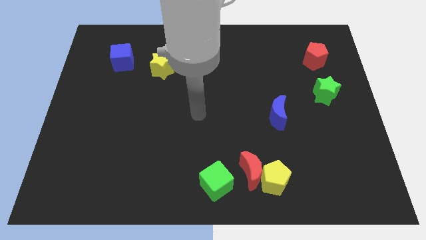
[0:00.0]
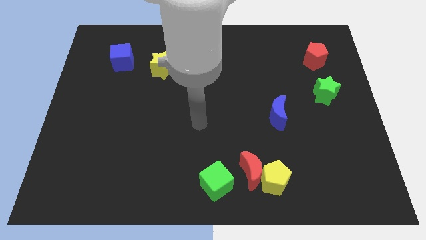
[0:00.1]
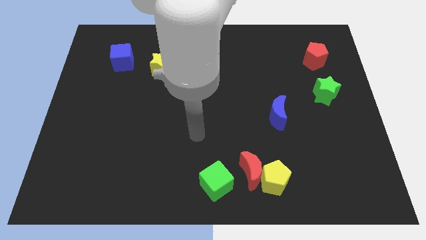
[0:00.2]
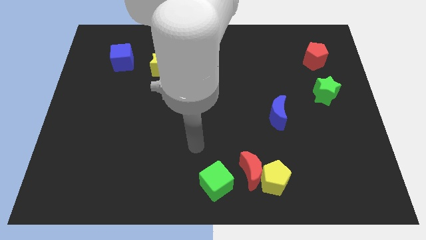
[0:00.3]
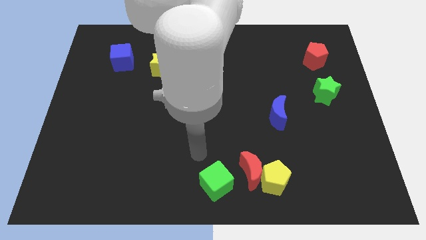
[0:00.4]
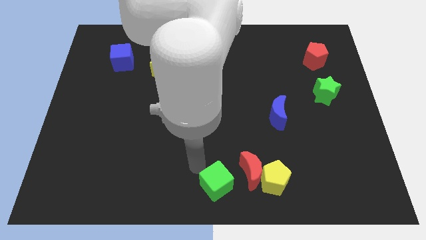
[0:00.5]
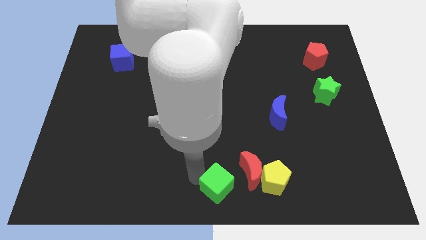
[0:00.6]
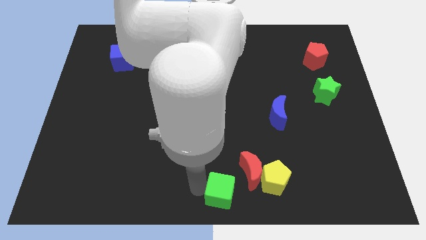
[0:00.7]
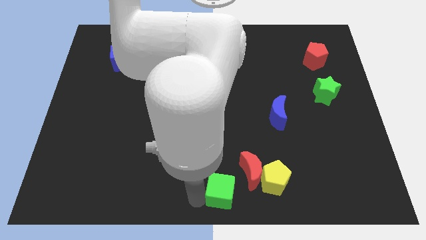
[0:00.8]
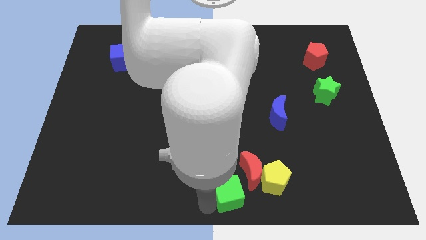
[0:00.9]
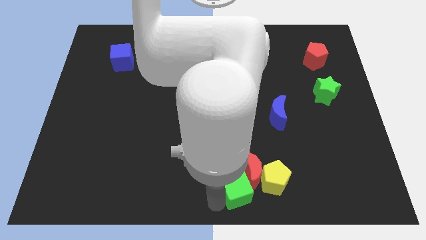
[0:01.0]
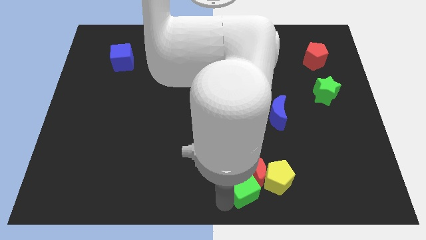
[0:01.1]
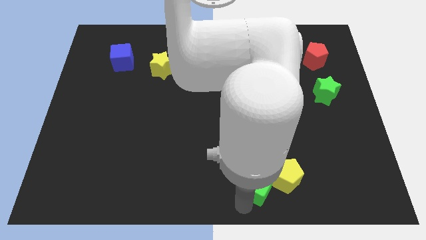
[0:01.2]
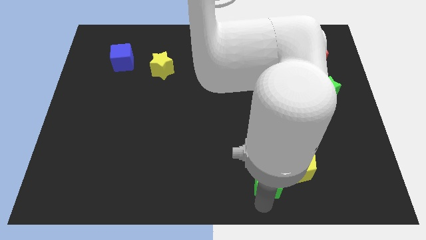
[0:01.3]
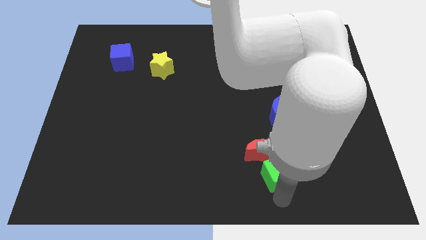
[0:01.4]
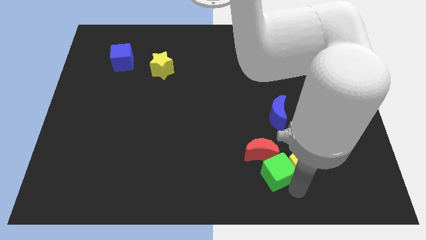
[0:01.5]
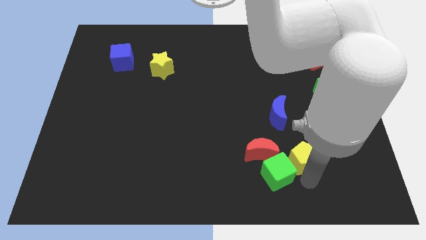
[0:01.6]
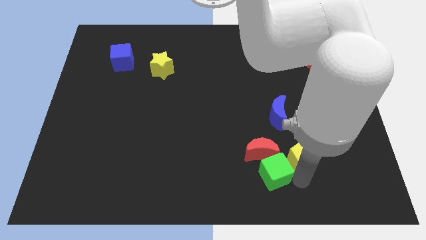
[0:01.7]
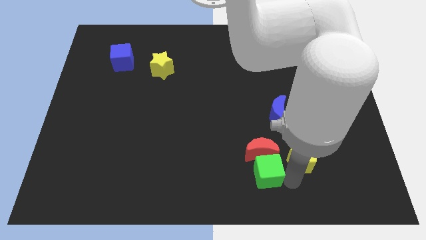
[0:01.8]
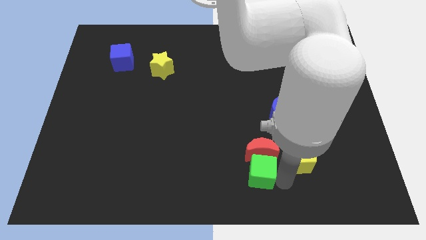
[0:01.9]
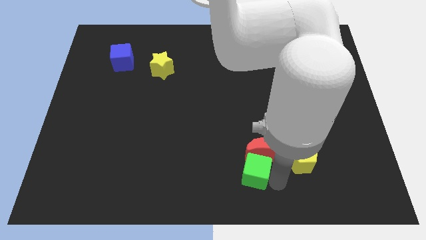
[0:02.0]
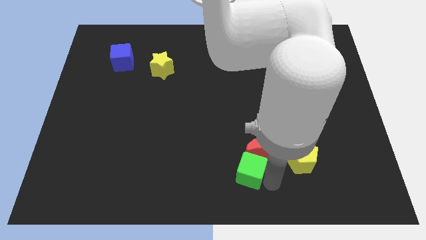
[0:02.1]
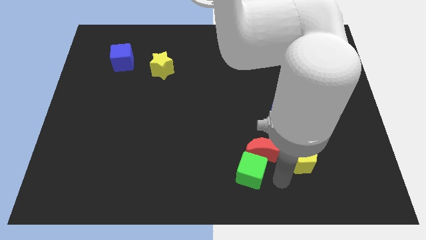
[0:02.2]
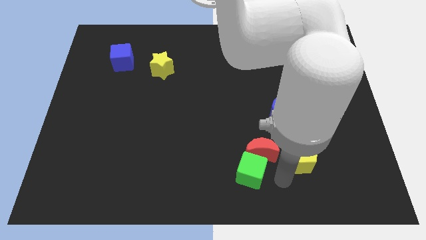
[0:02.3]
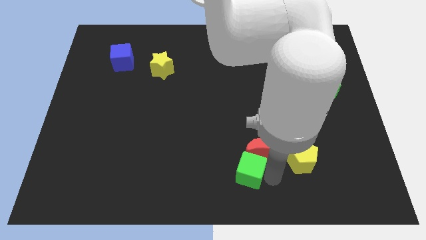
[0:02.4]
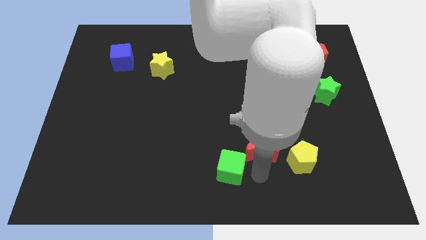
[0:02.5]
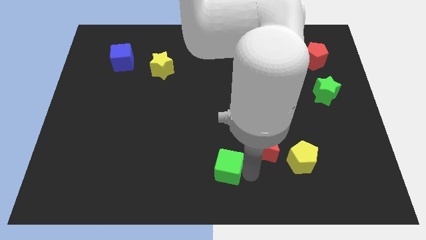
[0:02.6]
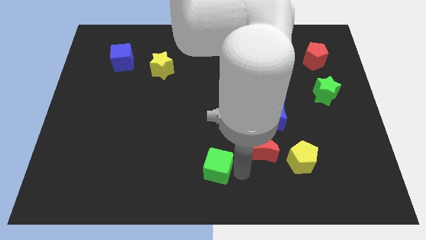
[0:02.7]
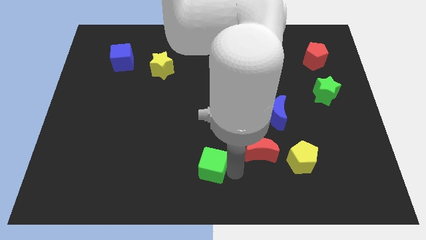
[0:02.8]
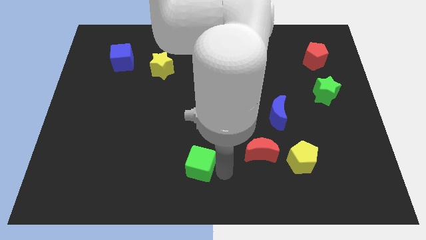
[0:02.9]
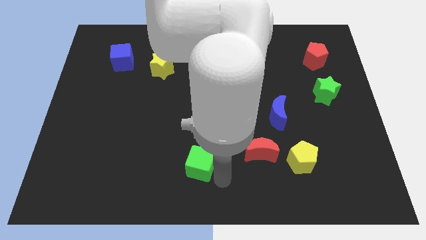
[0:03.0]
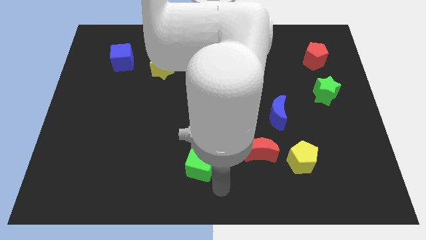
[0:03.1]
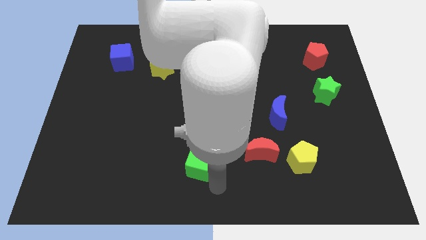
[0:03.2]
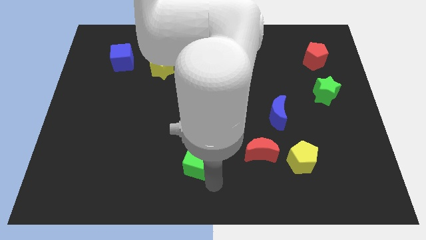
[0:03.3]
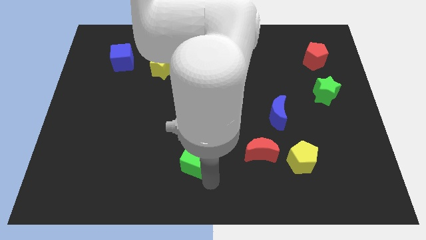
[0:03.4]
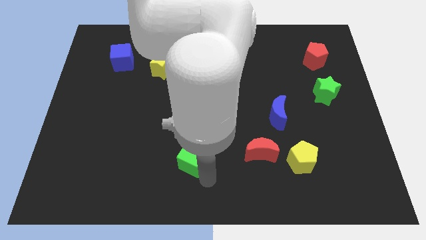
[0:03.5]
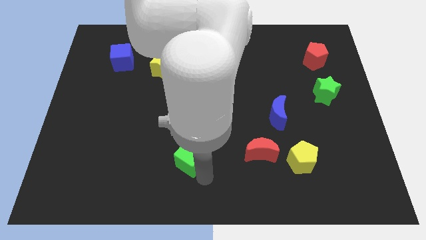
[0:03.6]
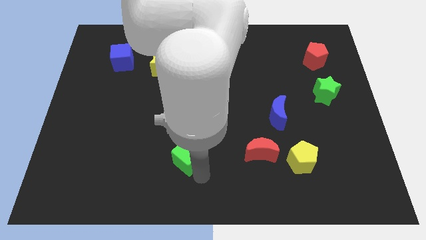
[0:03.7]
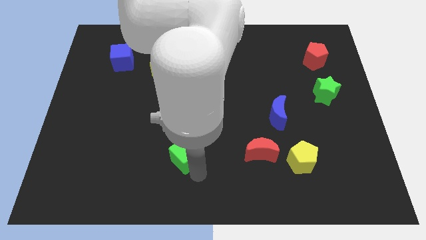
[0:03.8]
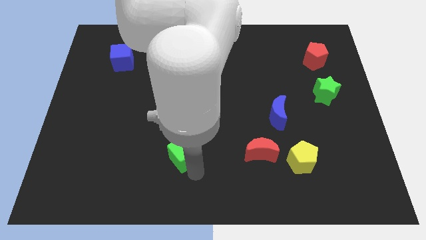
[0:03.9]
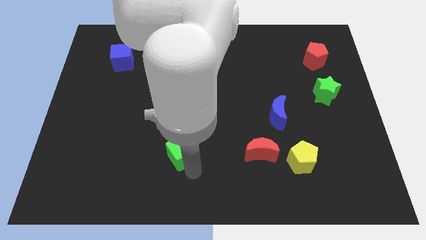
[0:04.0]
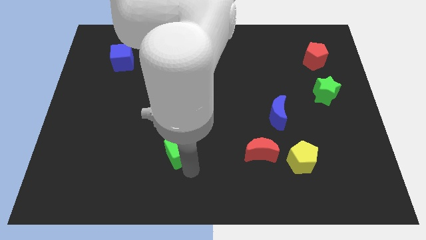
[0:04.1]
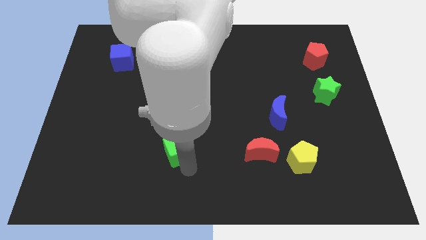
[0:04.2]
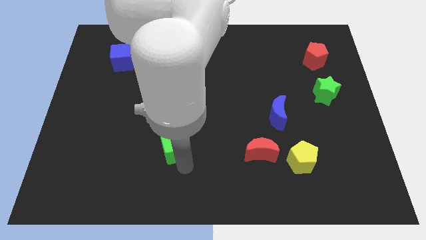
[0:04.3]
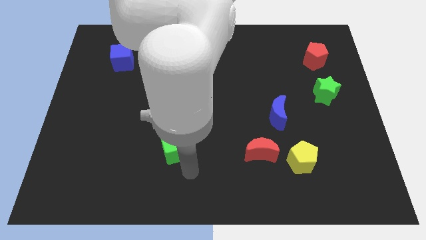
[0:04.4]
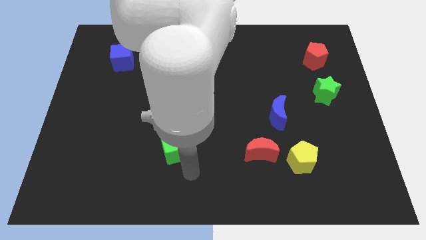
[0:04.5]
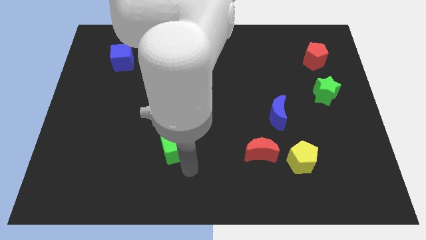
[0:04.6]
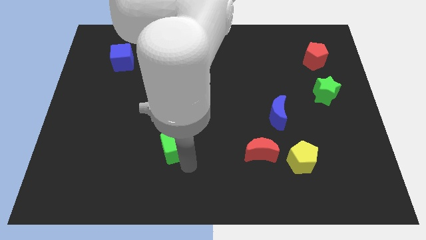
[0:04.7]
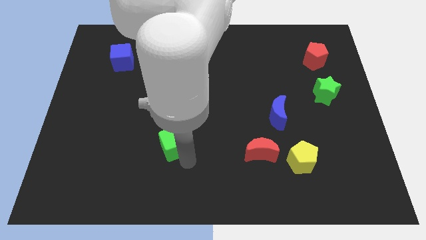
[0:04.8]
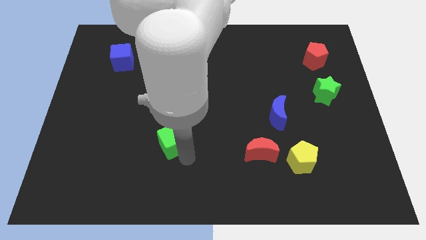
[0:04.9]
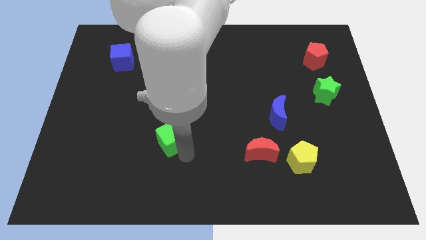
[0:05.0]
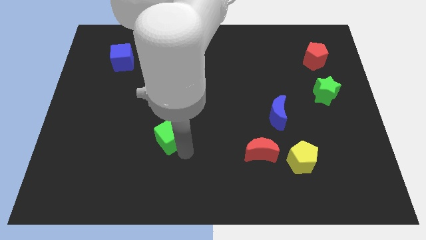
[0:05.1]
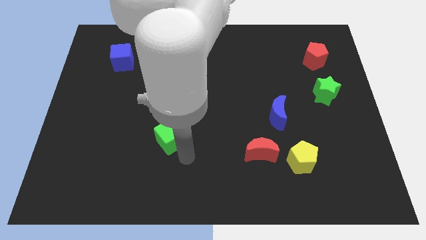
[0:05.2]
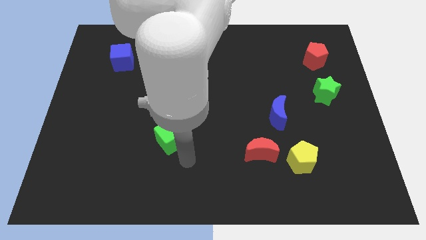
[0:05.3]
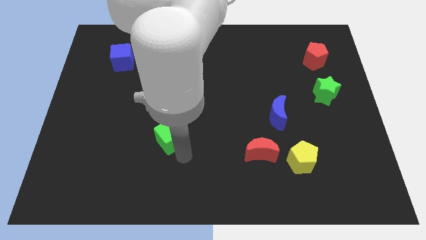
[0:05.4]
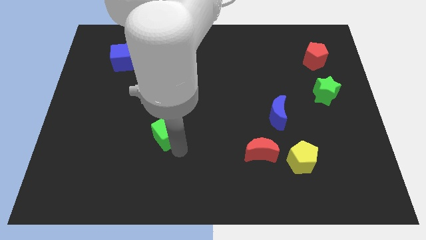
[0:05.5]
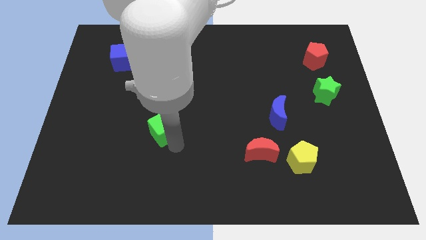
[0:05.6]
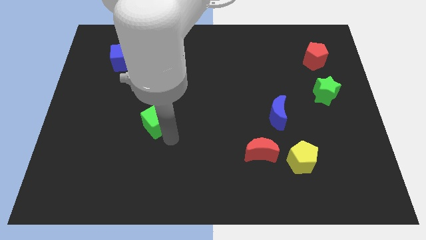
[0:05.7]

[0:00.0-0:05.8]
move the green cube upwards and then to the left

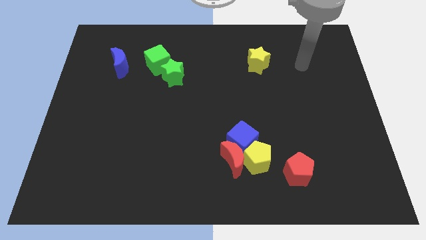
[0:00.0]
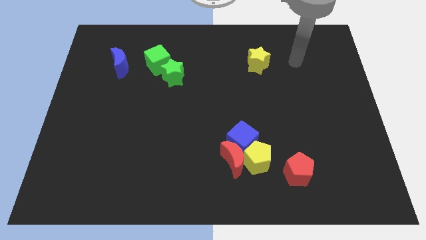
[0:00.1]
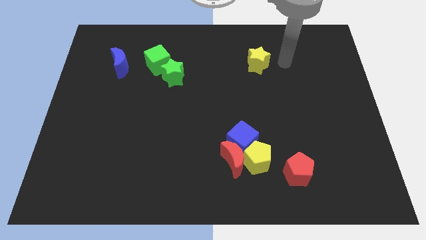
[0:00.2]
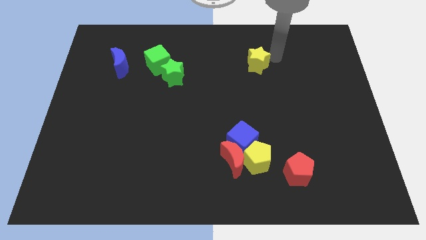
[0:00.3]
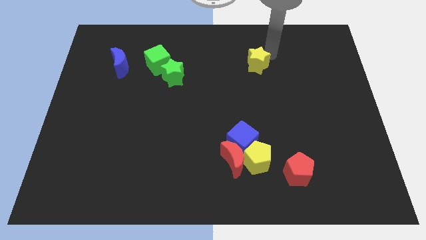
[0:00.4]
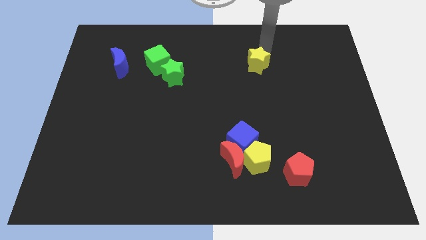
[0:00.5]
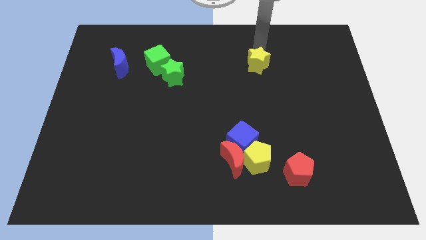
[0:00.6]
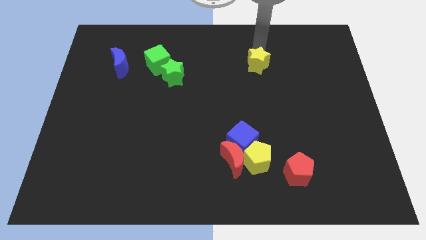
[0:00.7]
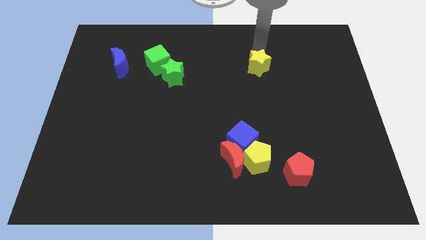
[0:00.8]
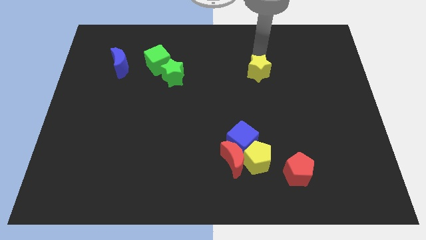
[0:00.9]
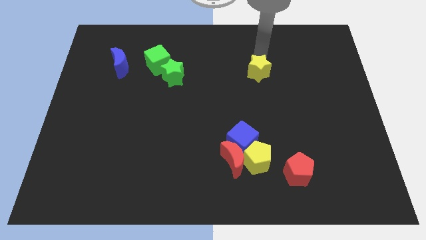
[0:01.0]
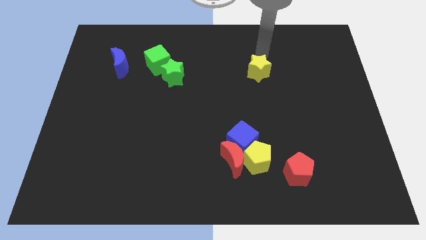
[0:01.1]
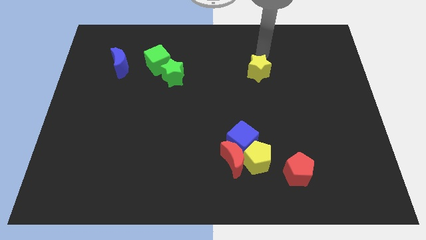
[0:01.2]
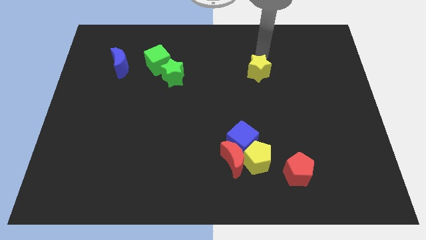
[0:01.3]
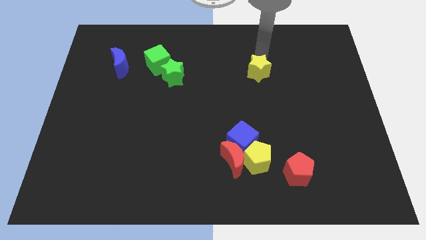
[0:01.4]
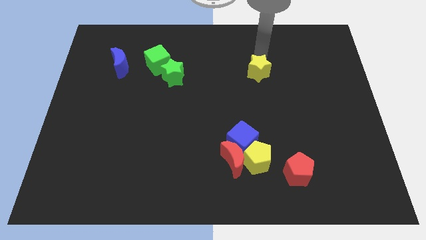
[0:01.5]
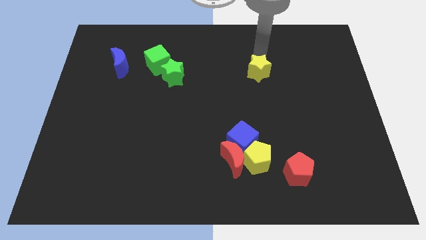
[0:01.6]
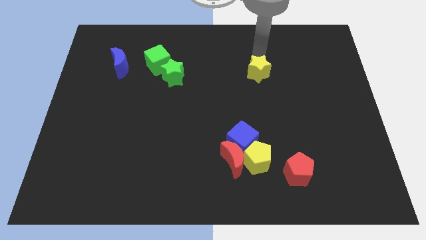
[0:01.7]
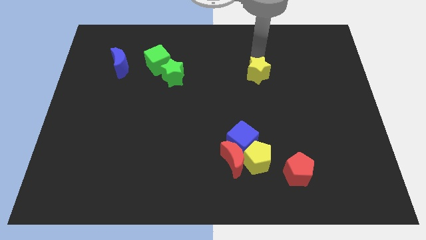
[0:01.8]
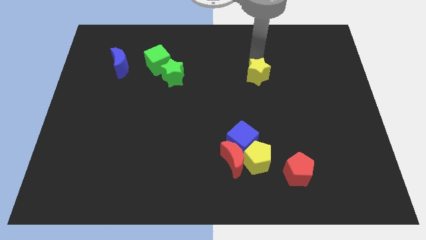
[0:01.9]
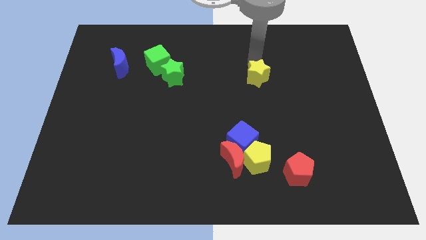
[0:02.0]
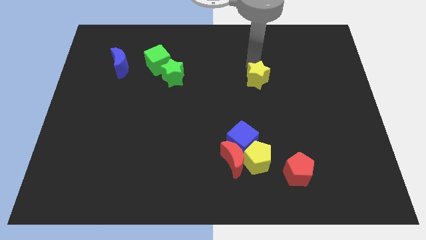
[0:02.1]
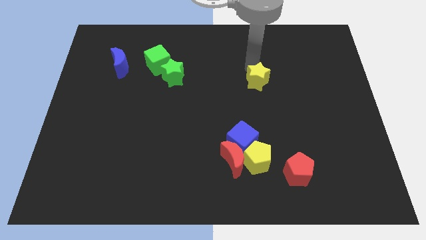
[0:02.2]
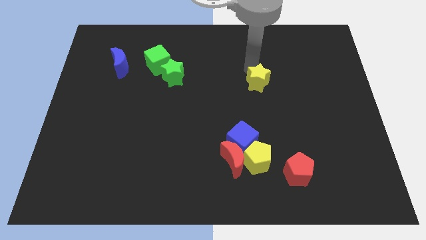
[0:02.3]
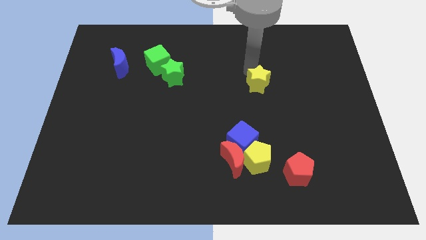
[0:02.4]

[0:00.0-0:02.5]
slide the yellow star slightly down
